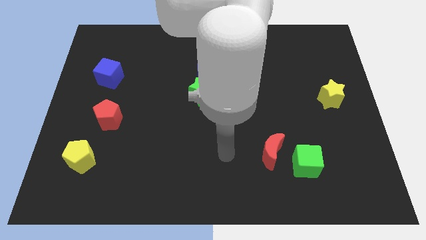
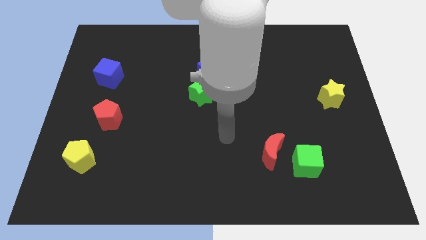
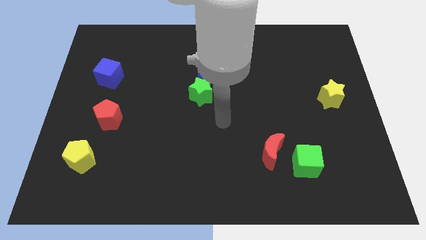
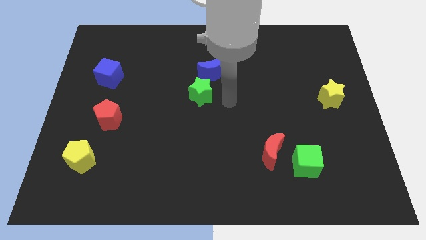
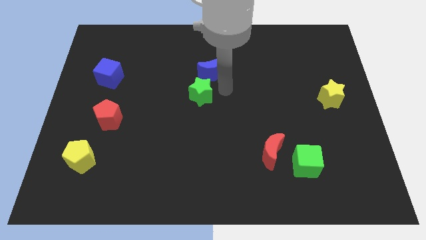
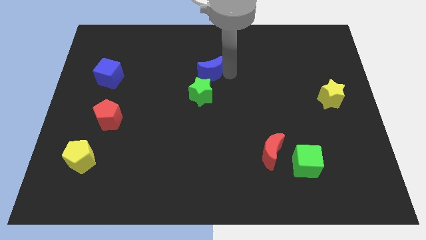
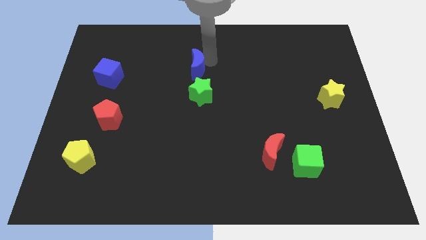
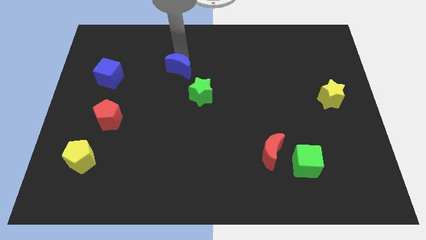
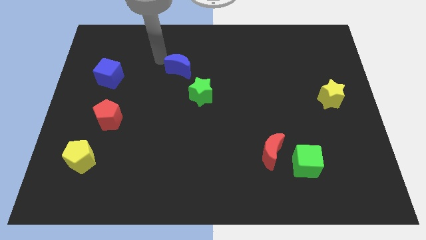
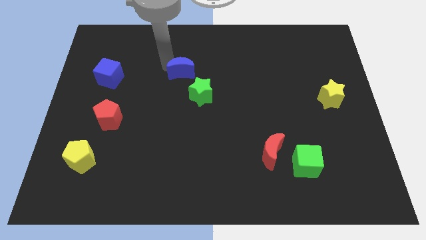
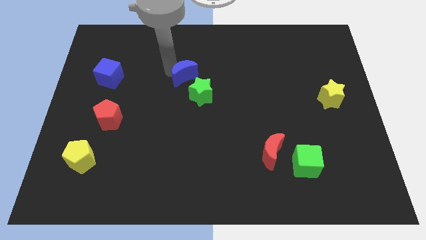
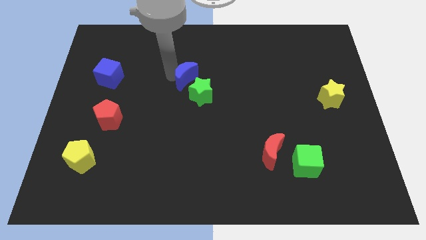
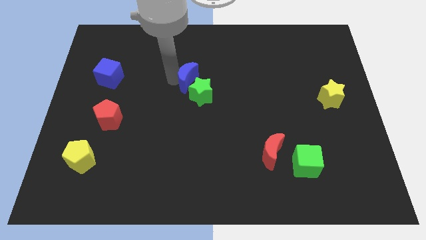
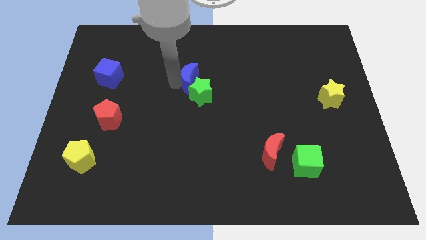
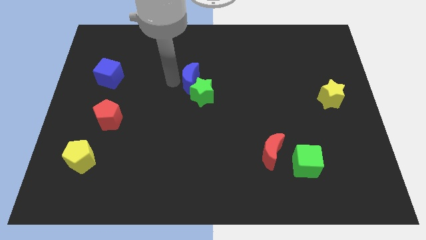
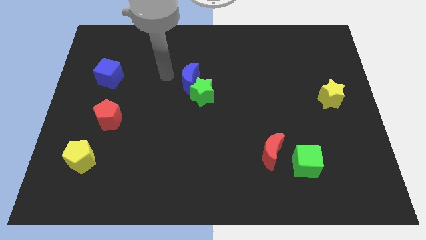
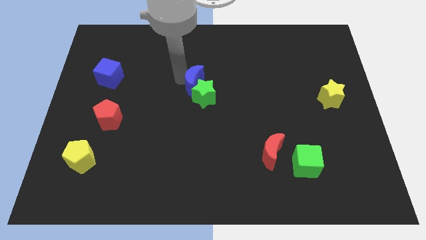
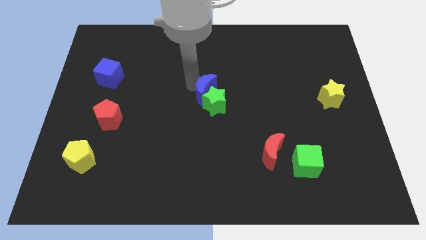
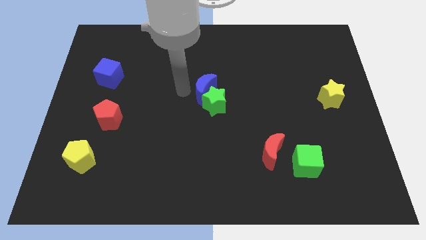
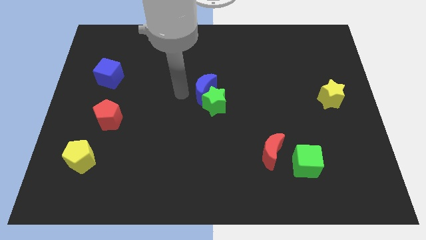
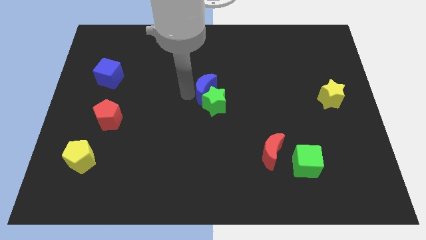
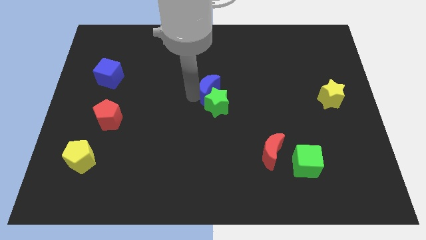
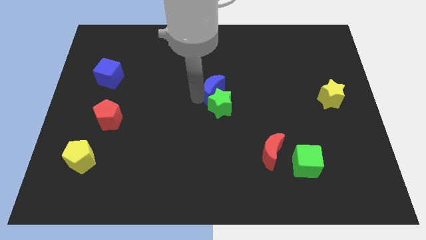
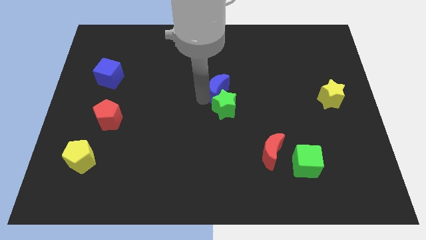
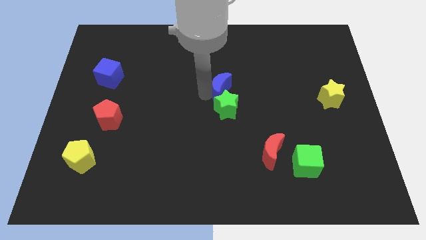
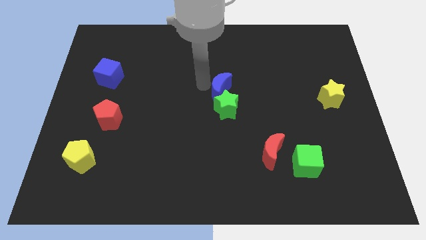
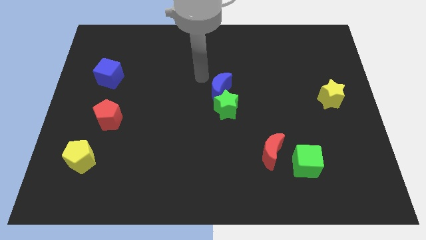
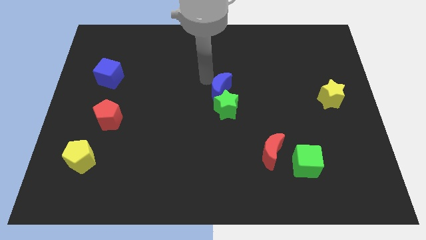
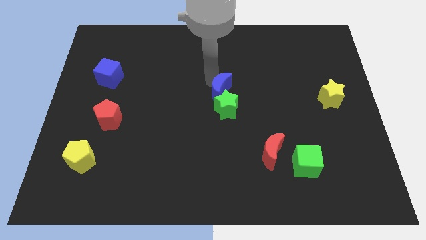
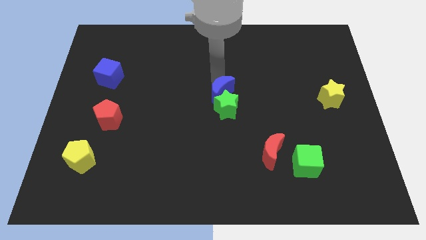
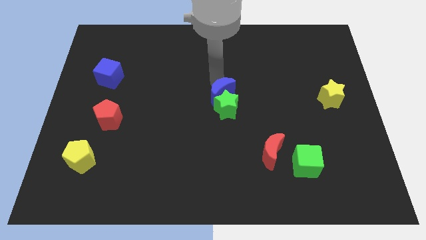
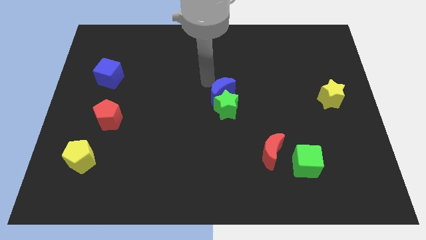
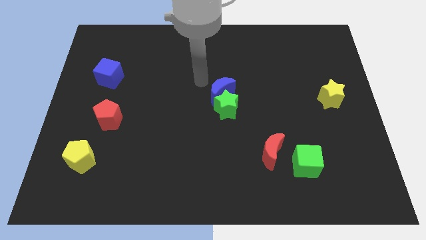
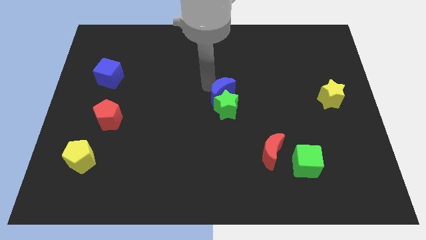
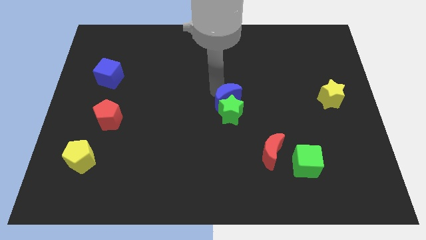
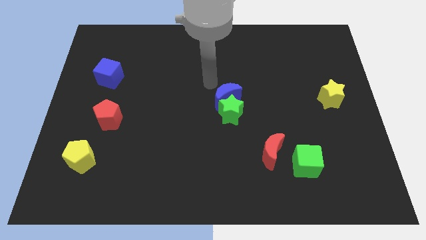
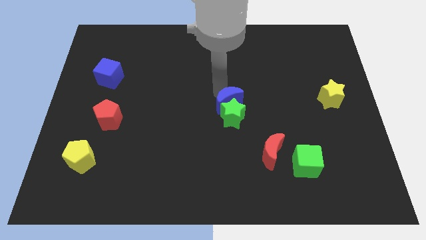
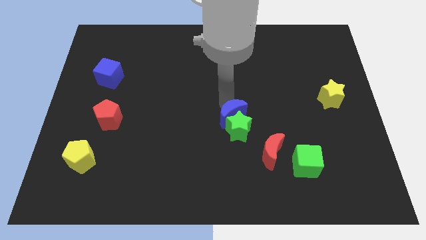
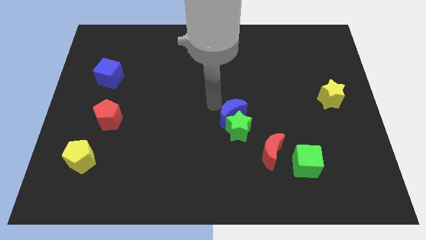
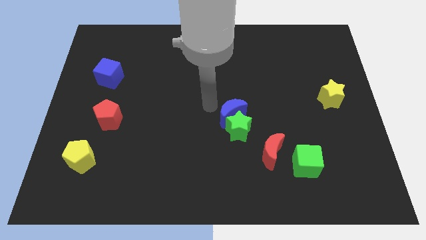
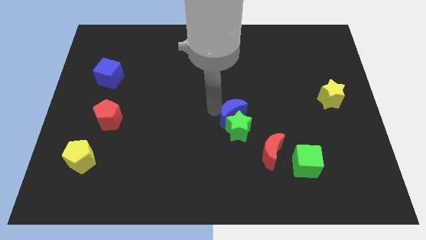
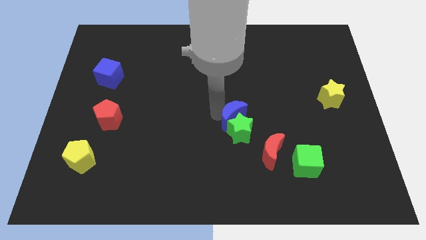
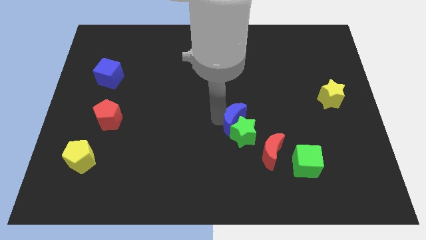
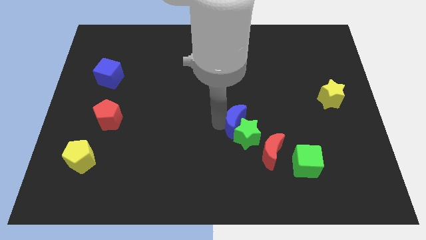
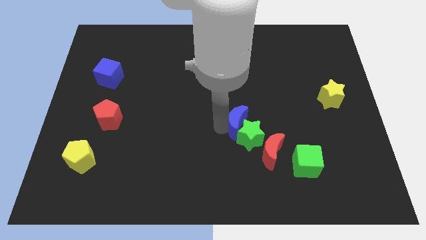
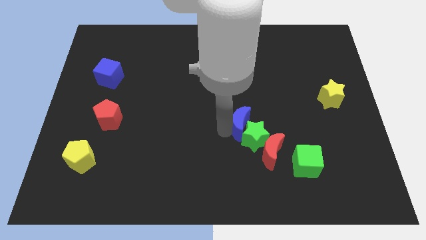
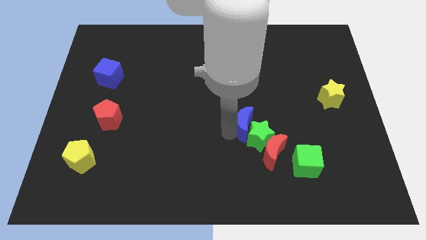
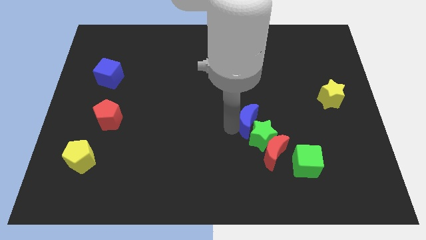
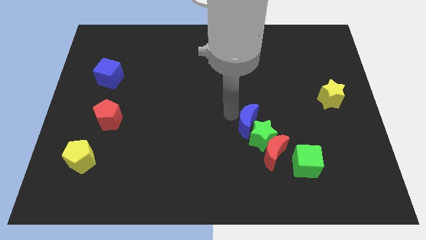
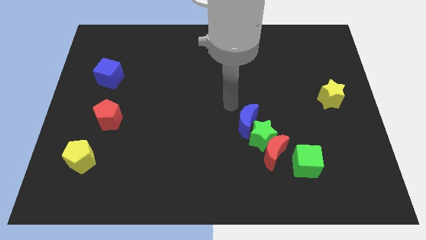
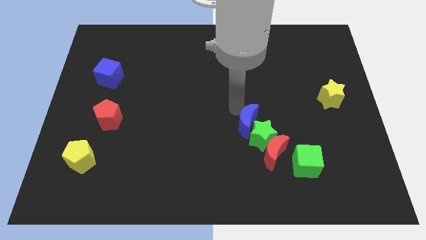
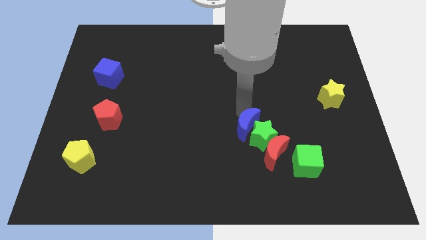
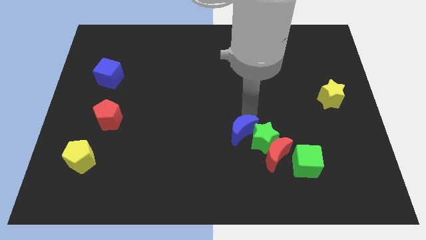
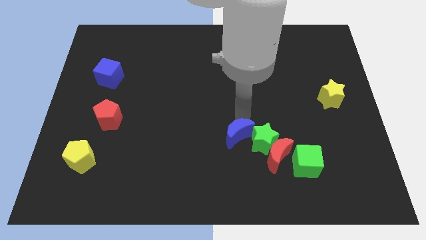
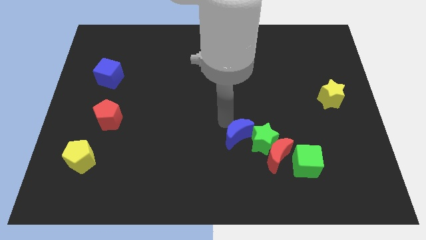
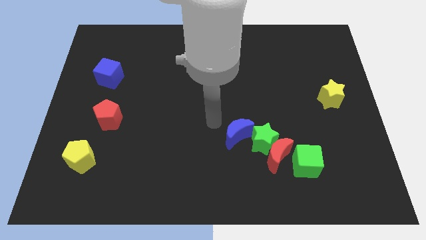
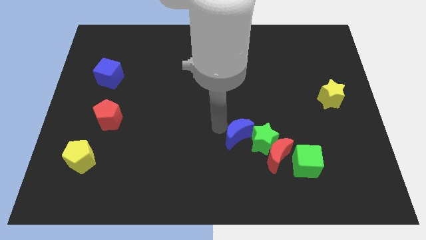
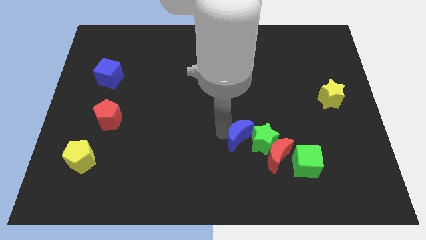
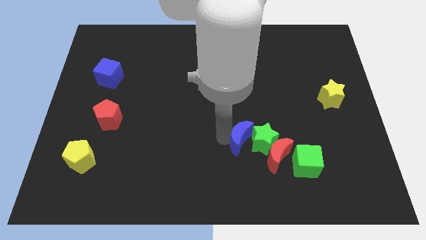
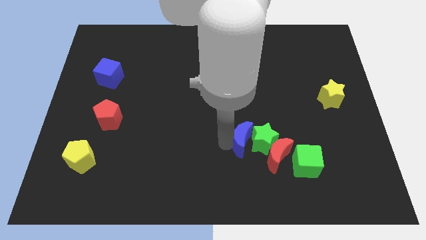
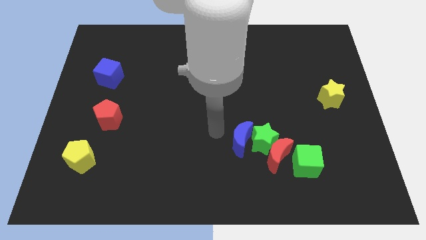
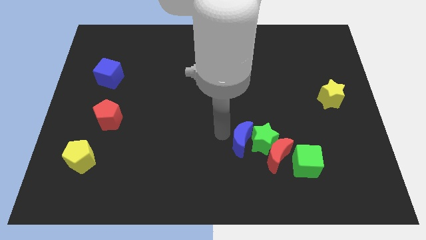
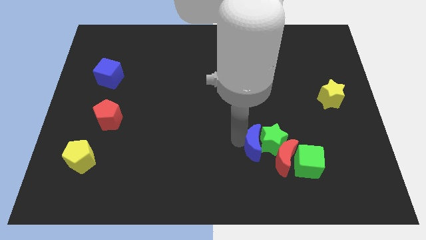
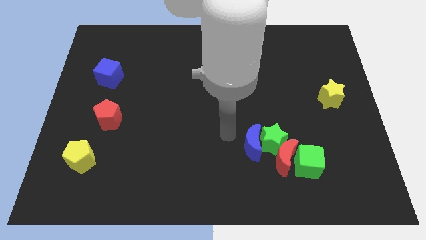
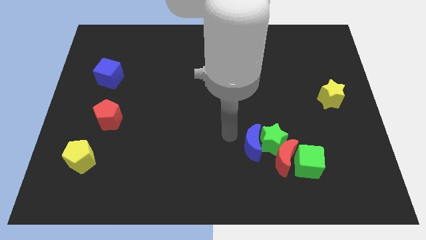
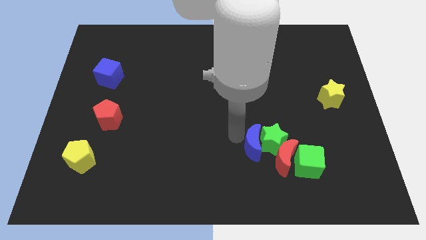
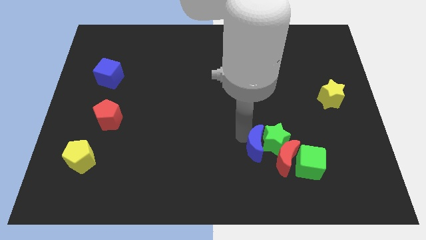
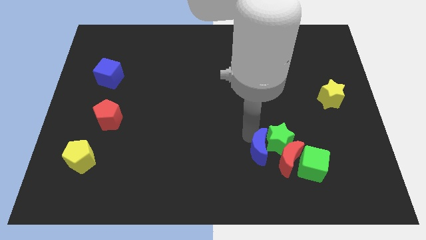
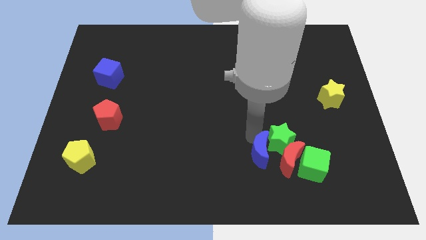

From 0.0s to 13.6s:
move the blue moon to the red moon
